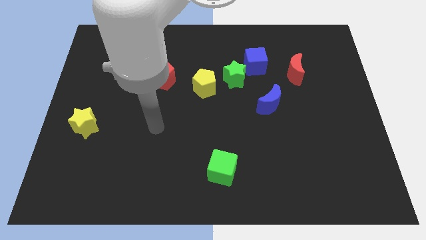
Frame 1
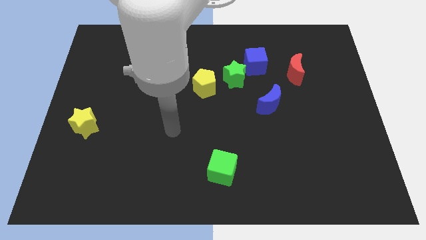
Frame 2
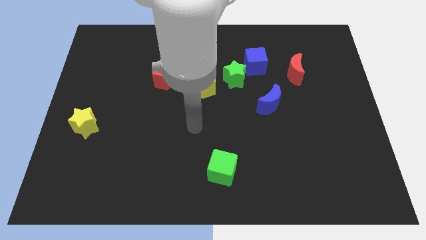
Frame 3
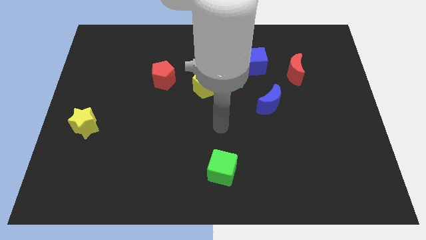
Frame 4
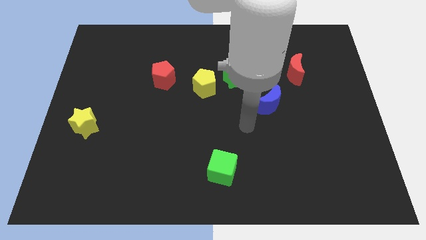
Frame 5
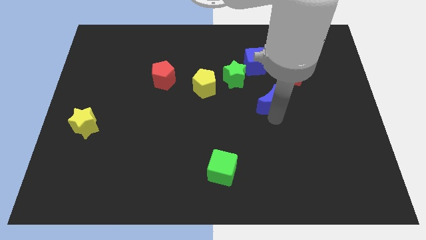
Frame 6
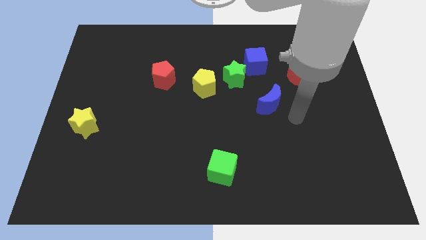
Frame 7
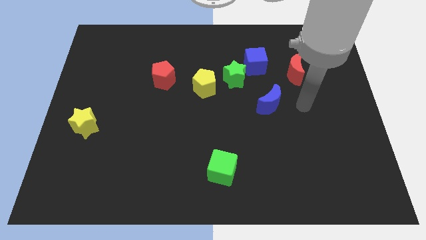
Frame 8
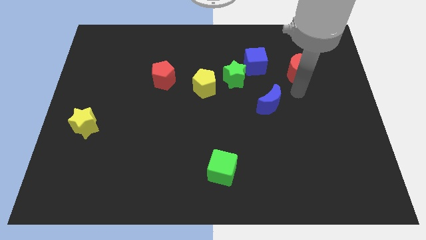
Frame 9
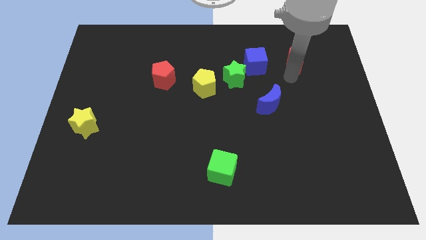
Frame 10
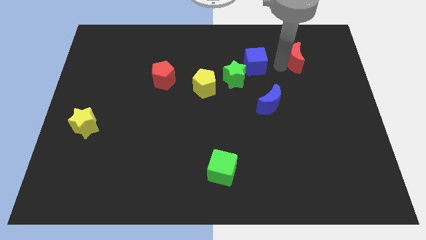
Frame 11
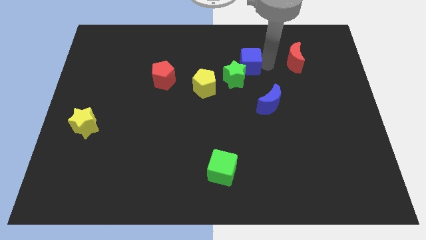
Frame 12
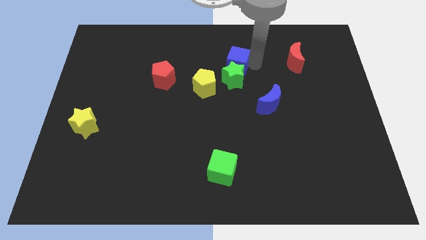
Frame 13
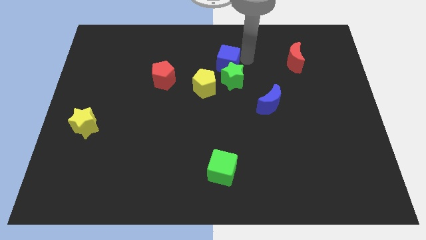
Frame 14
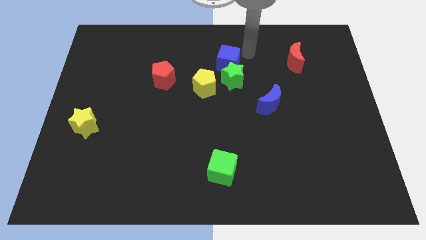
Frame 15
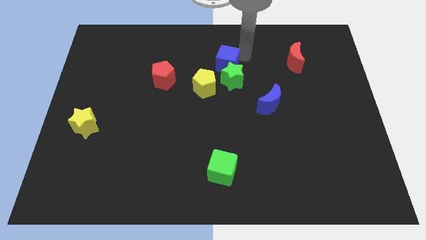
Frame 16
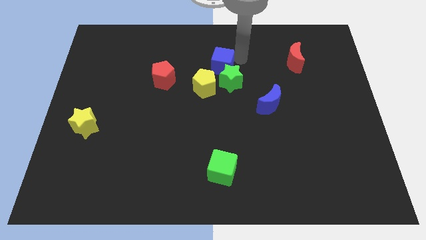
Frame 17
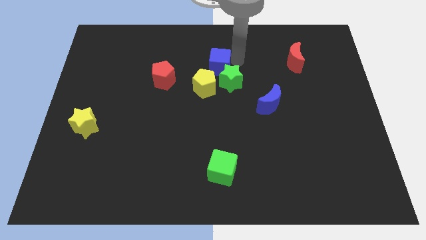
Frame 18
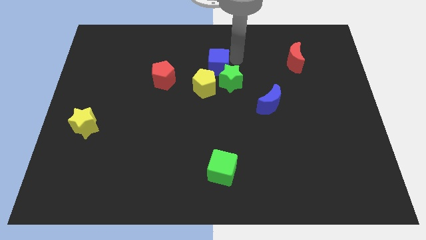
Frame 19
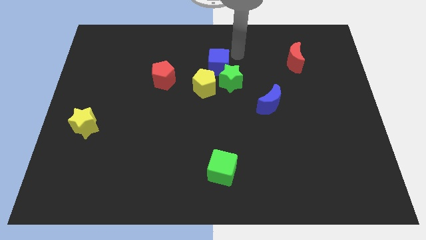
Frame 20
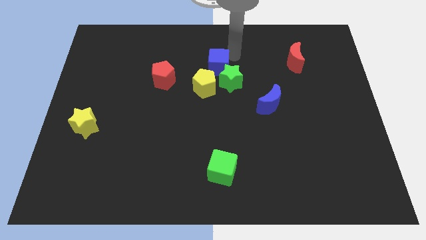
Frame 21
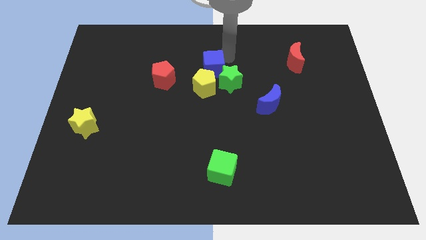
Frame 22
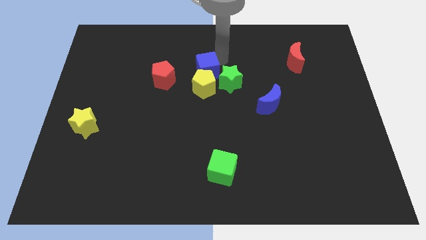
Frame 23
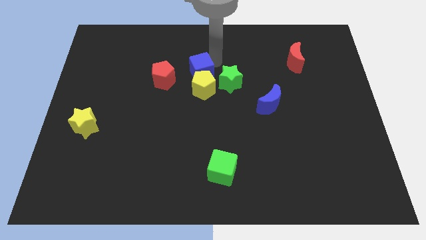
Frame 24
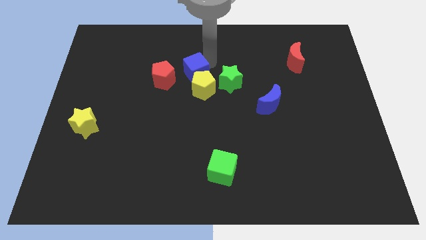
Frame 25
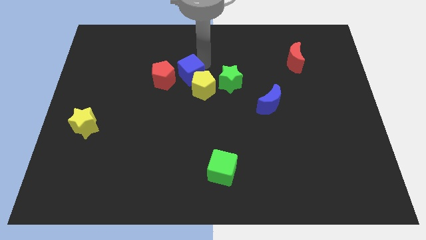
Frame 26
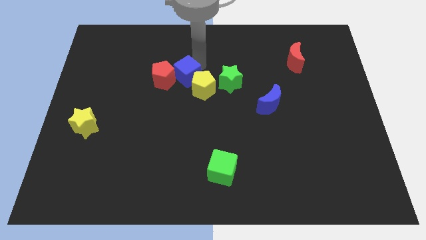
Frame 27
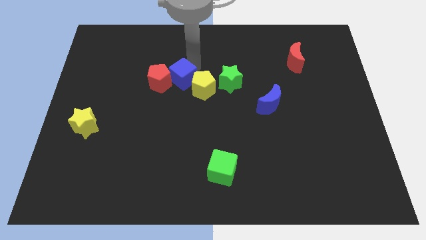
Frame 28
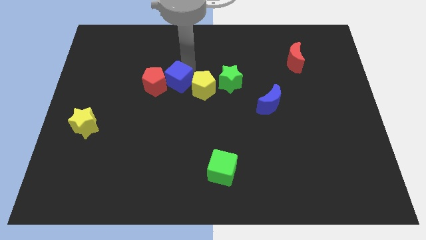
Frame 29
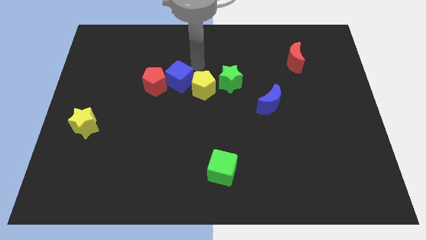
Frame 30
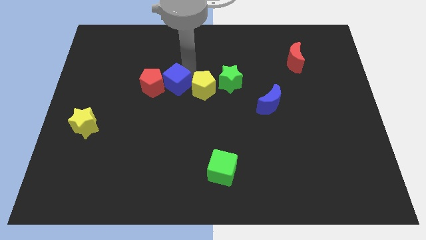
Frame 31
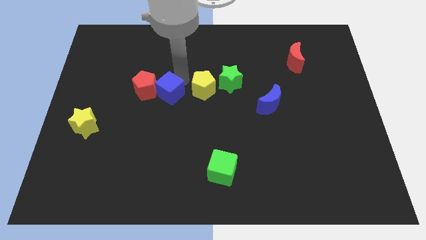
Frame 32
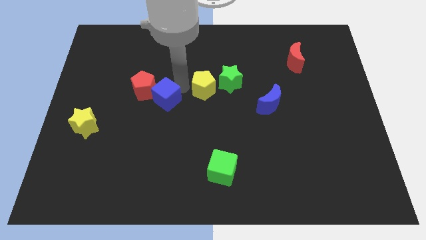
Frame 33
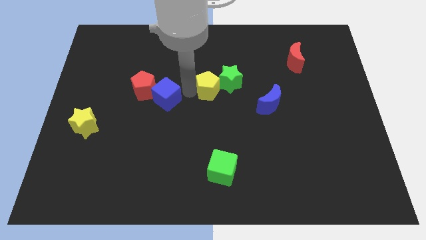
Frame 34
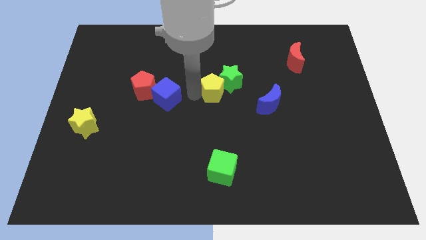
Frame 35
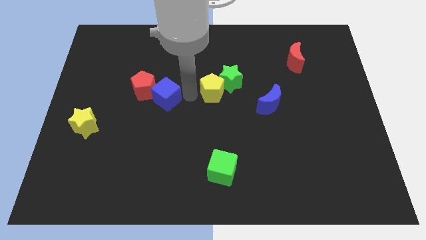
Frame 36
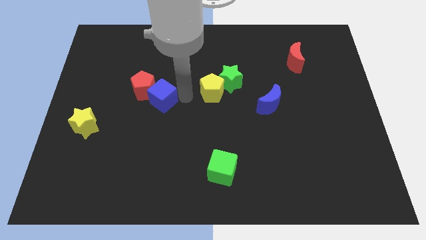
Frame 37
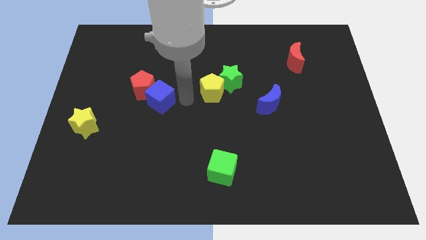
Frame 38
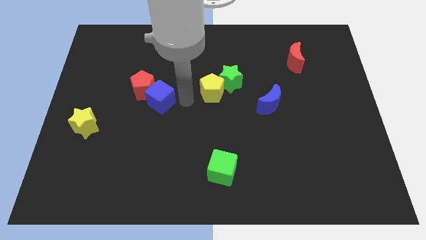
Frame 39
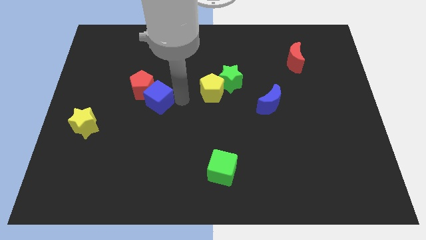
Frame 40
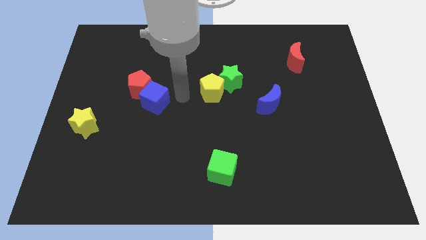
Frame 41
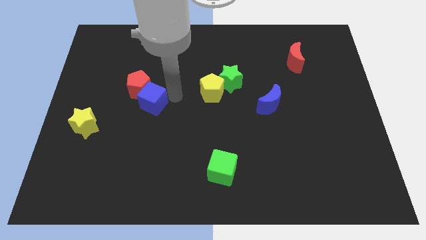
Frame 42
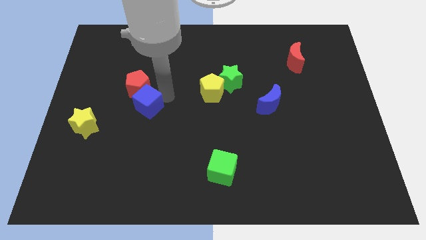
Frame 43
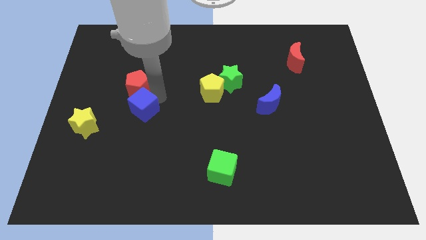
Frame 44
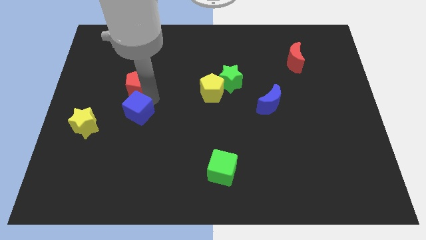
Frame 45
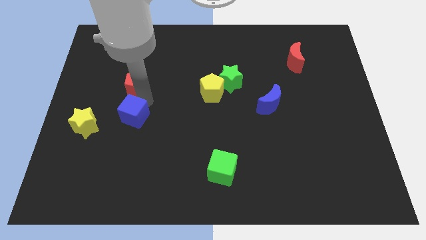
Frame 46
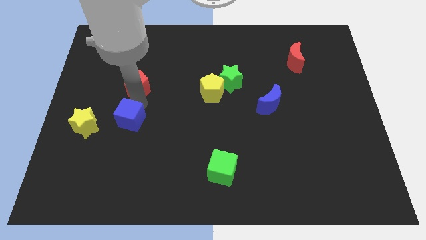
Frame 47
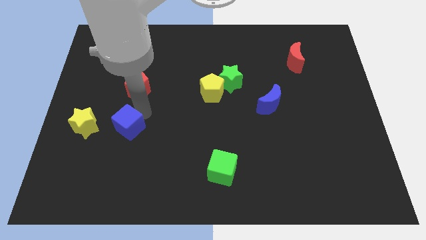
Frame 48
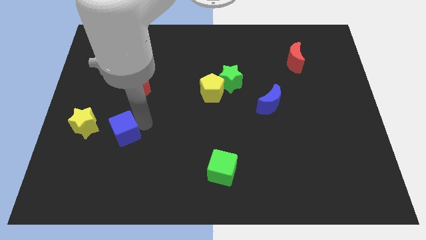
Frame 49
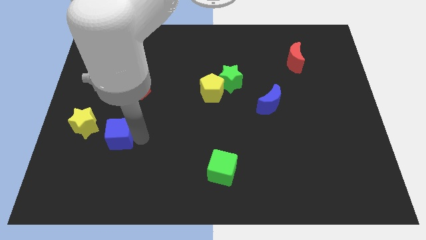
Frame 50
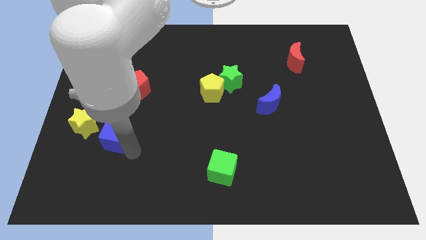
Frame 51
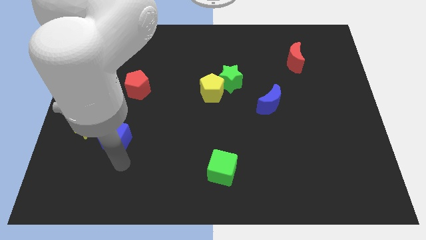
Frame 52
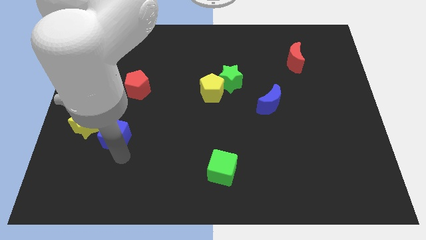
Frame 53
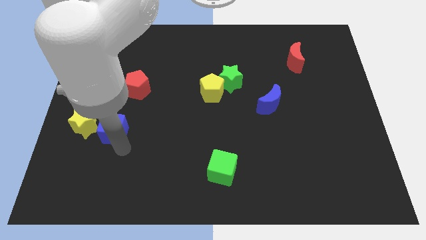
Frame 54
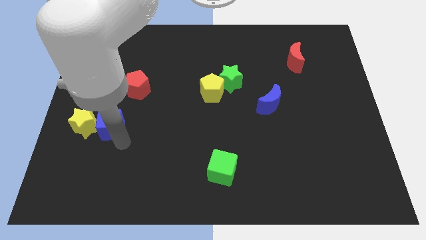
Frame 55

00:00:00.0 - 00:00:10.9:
push the blue cube to the top right of the yellow star

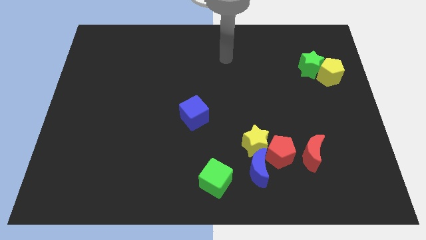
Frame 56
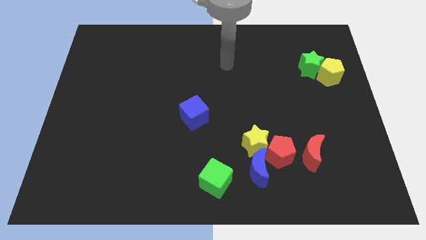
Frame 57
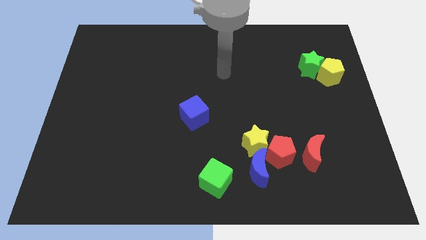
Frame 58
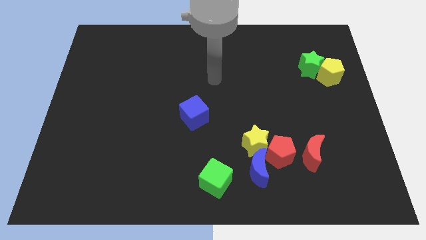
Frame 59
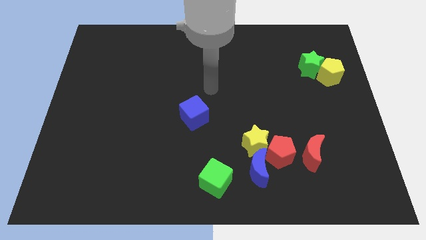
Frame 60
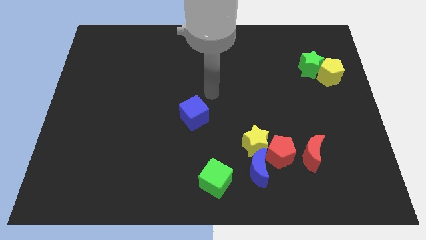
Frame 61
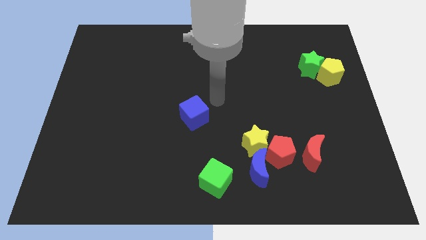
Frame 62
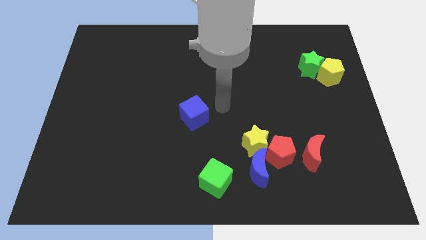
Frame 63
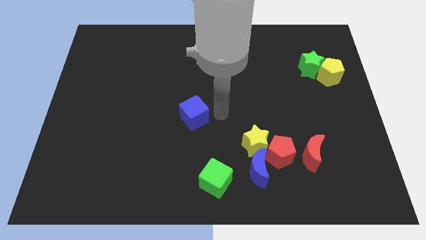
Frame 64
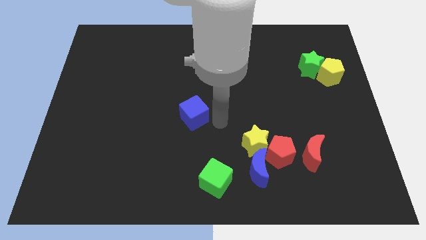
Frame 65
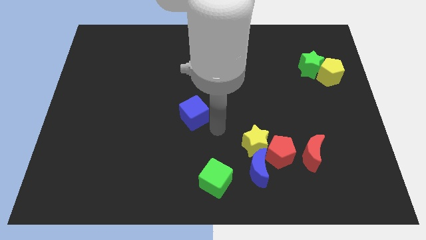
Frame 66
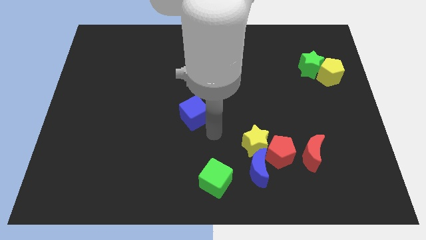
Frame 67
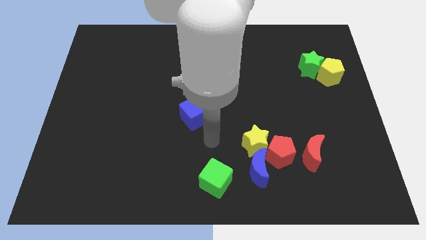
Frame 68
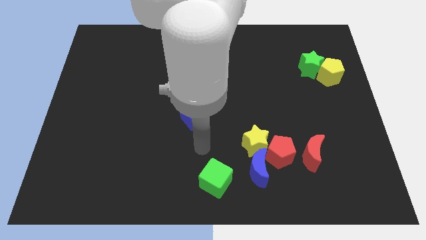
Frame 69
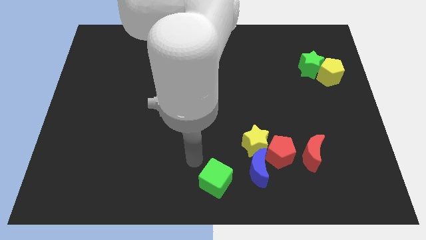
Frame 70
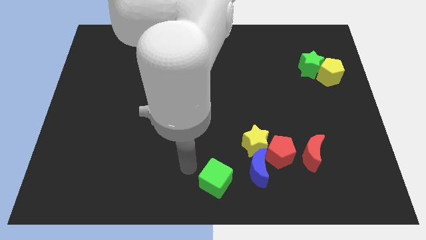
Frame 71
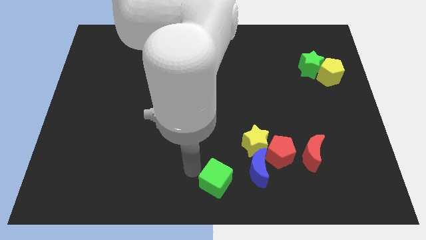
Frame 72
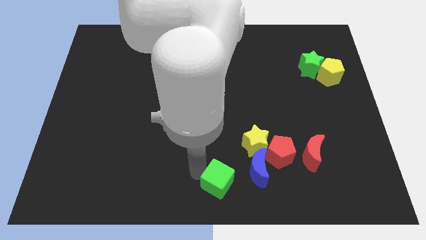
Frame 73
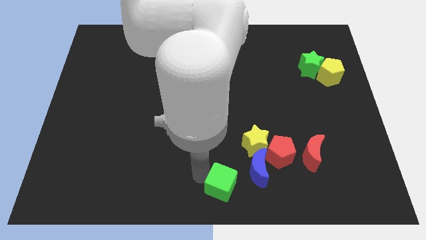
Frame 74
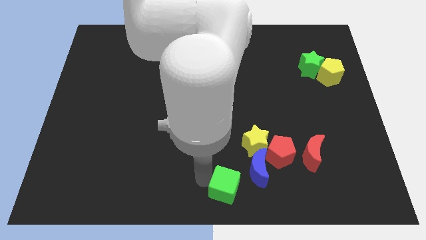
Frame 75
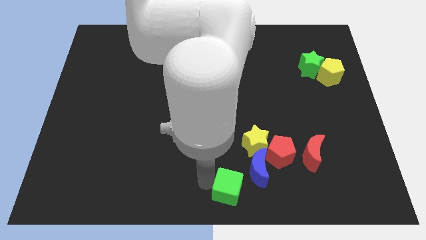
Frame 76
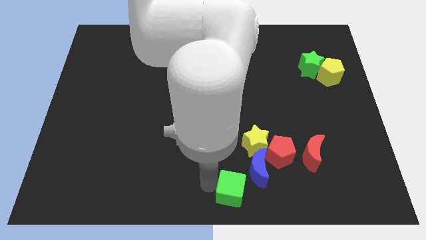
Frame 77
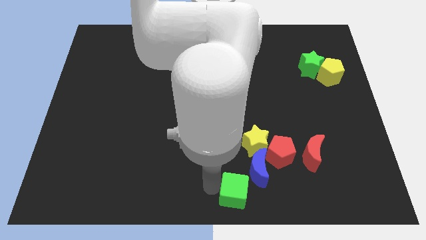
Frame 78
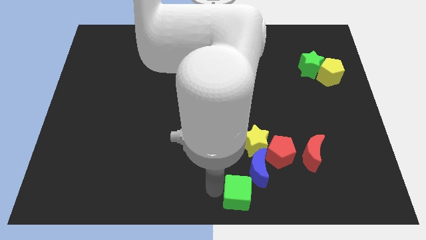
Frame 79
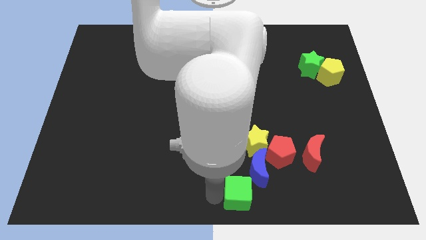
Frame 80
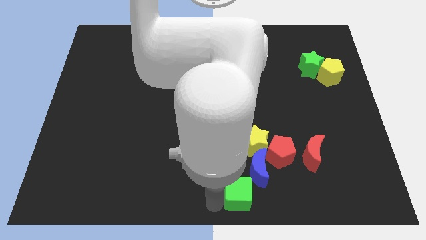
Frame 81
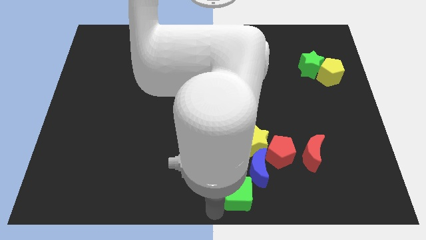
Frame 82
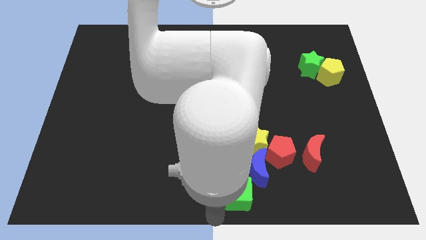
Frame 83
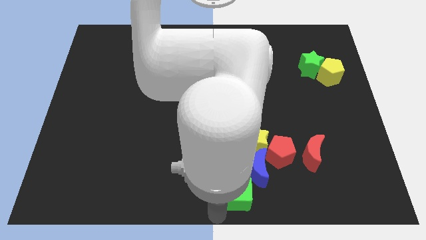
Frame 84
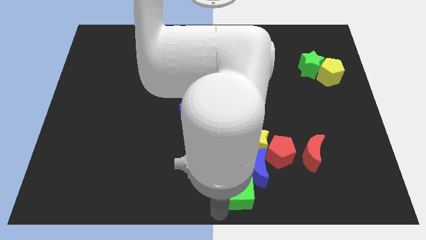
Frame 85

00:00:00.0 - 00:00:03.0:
push the green cube to the bottom left side of the red pentagon
